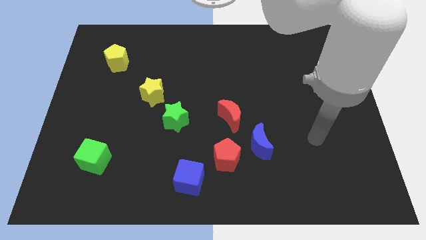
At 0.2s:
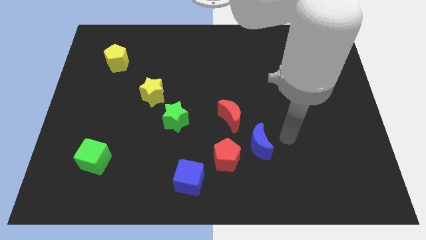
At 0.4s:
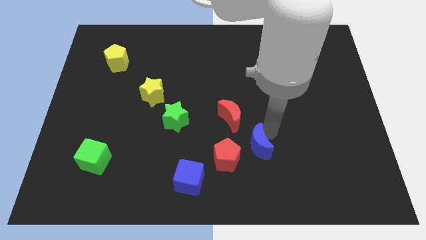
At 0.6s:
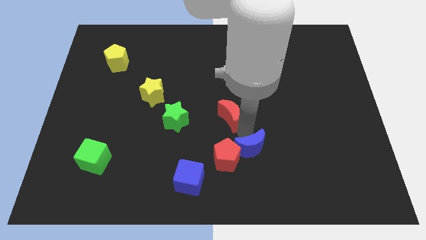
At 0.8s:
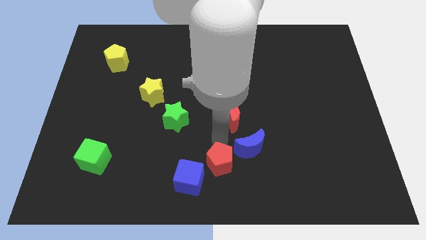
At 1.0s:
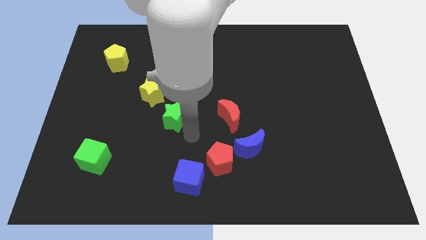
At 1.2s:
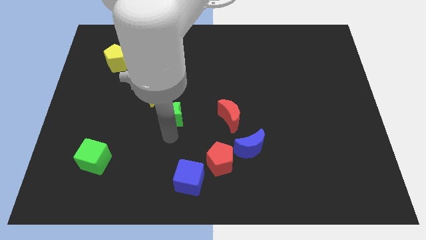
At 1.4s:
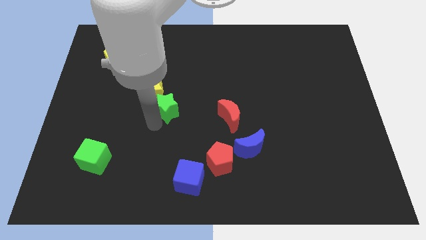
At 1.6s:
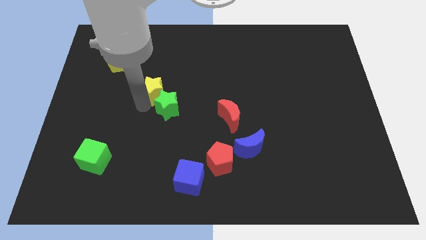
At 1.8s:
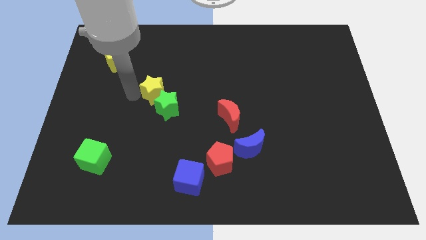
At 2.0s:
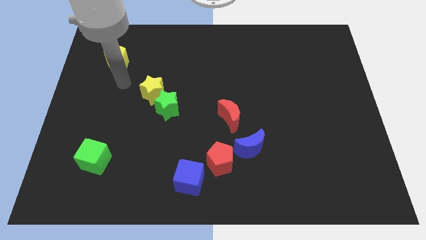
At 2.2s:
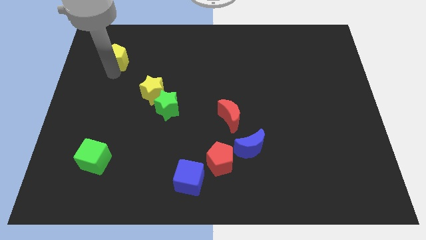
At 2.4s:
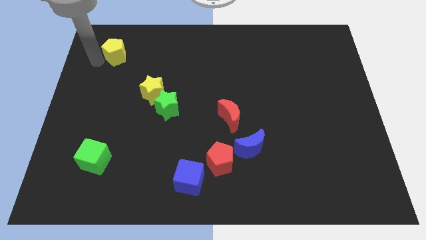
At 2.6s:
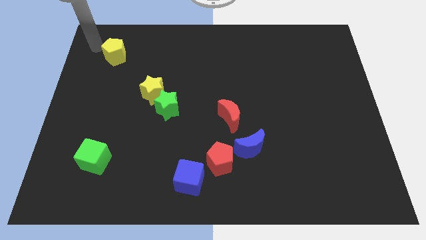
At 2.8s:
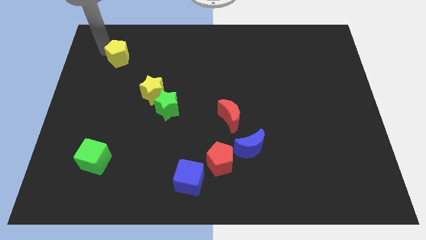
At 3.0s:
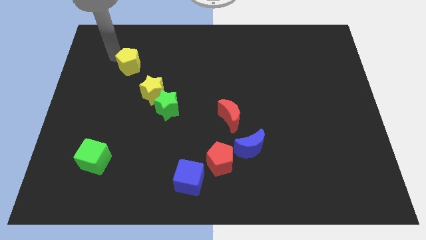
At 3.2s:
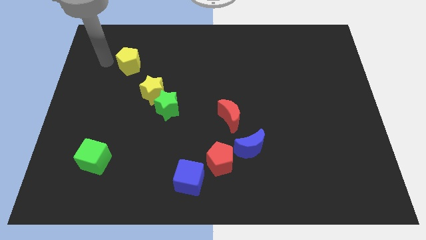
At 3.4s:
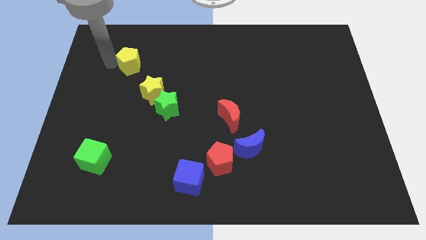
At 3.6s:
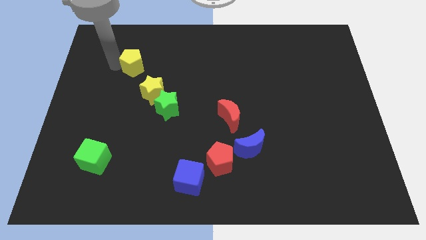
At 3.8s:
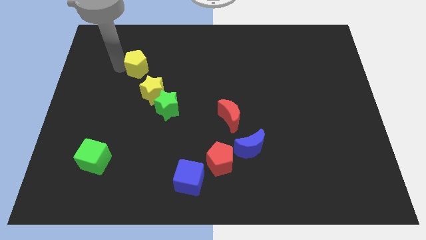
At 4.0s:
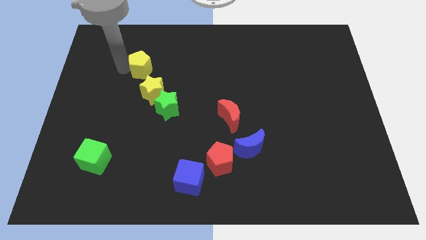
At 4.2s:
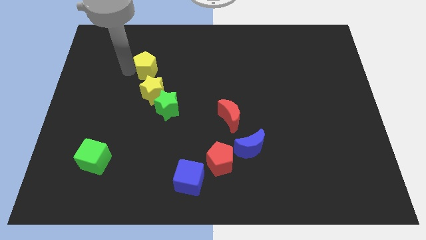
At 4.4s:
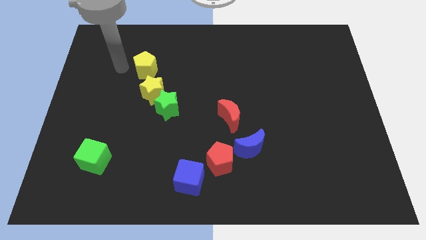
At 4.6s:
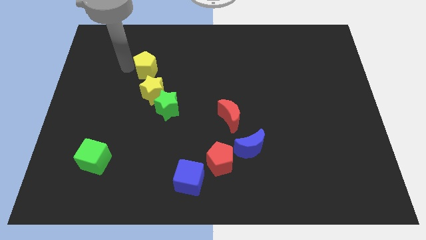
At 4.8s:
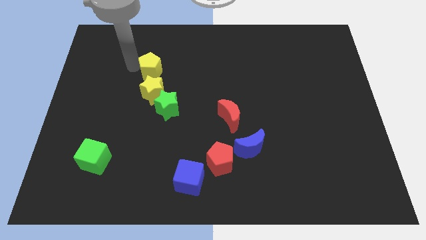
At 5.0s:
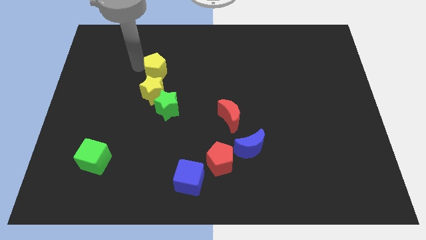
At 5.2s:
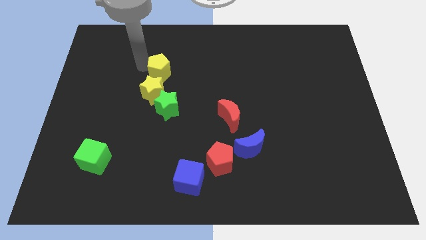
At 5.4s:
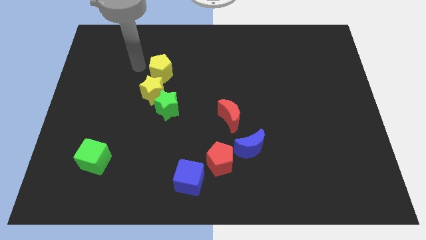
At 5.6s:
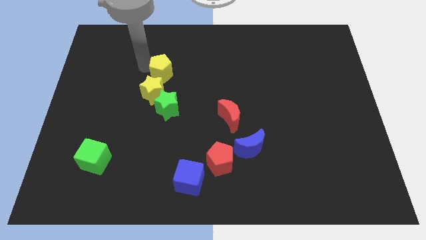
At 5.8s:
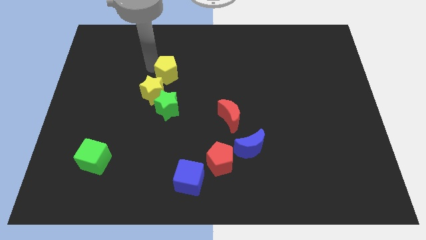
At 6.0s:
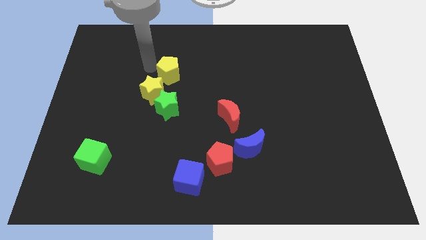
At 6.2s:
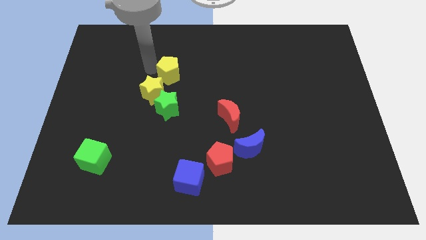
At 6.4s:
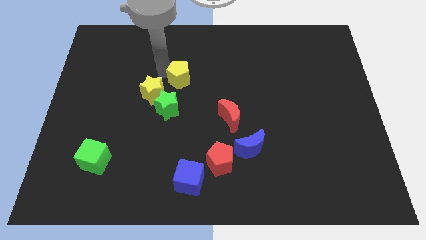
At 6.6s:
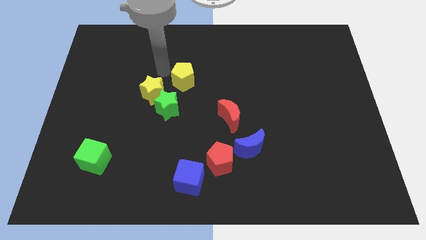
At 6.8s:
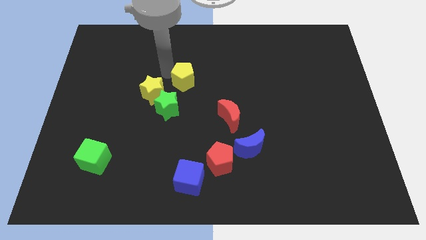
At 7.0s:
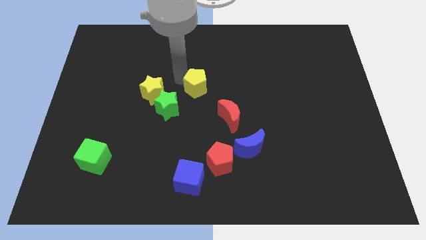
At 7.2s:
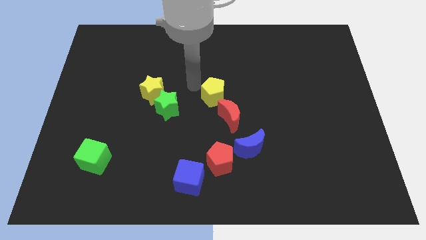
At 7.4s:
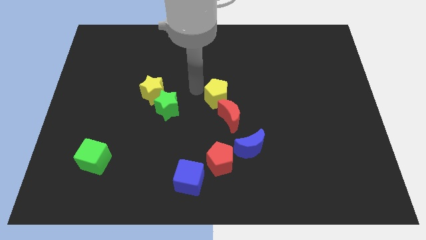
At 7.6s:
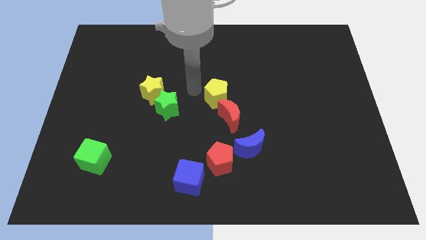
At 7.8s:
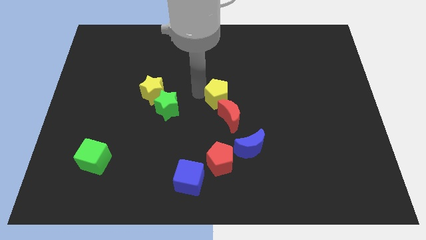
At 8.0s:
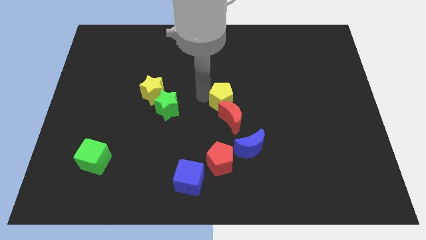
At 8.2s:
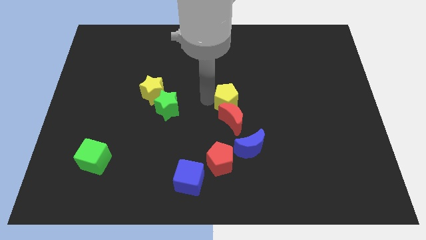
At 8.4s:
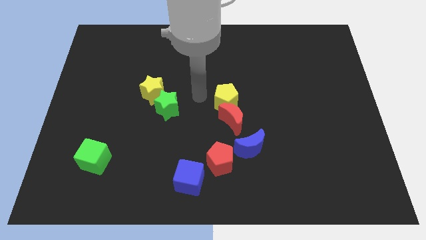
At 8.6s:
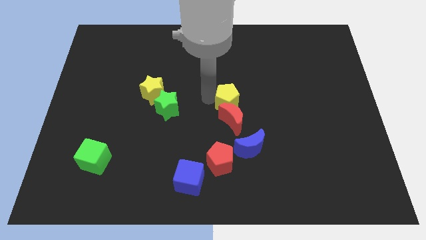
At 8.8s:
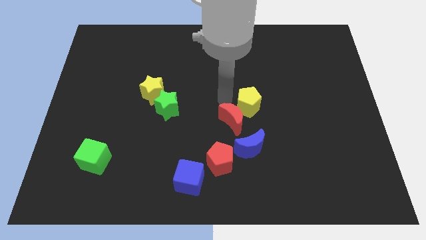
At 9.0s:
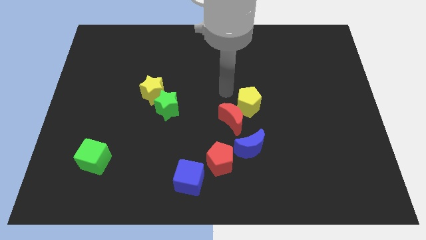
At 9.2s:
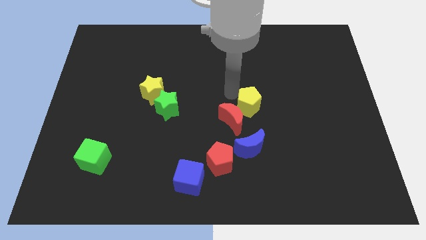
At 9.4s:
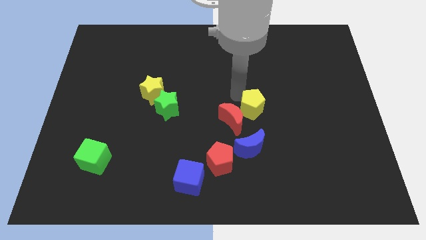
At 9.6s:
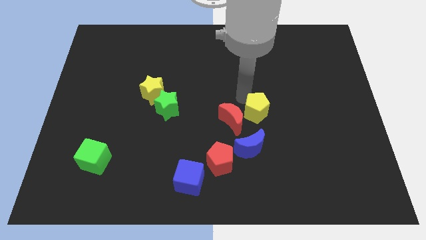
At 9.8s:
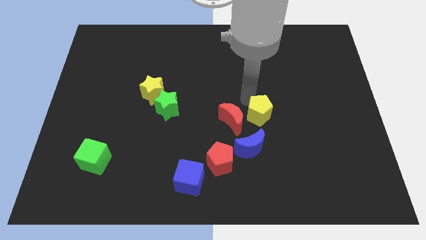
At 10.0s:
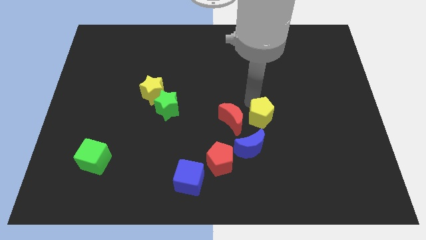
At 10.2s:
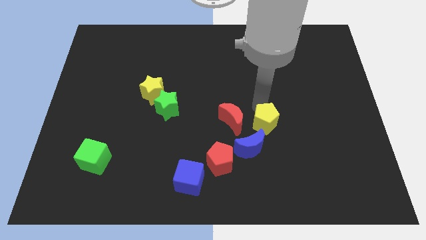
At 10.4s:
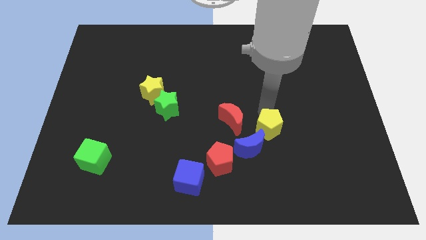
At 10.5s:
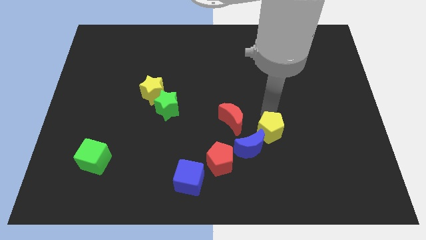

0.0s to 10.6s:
slide the yellow pentagon to the right side of the blue moon

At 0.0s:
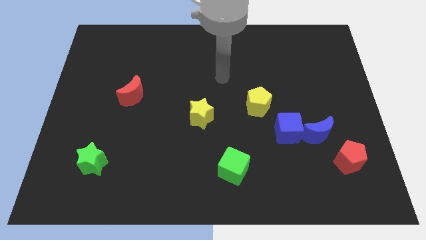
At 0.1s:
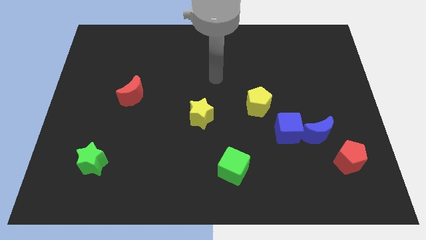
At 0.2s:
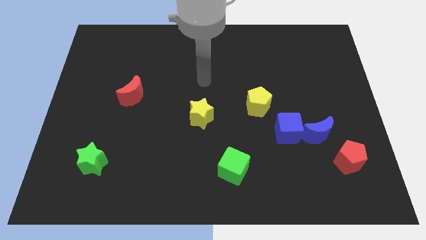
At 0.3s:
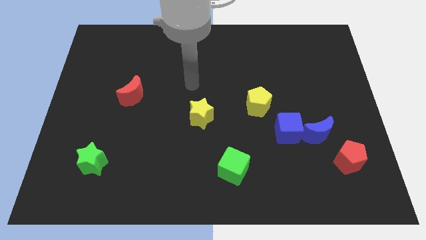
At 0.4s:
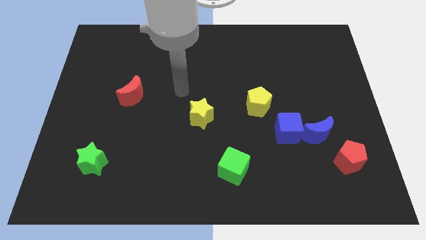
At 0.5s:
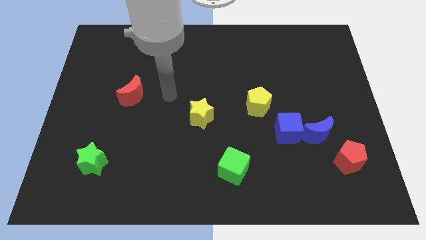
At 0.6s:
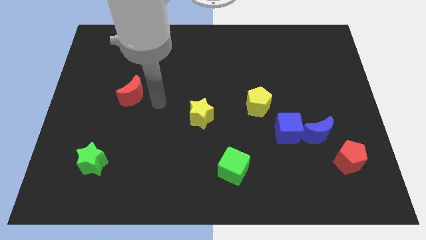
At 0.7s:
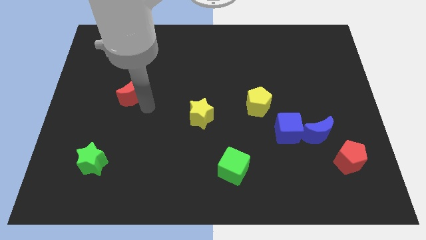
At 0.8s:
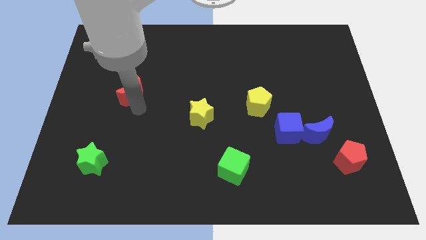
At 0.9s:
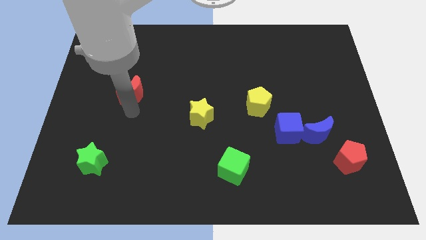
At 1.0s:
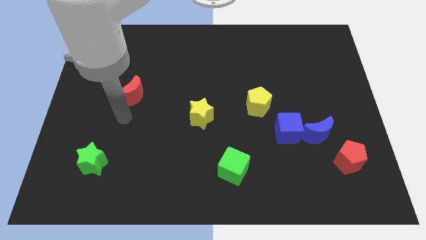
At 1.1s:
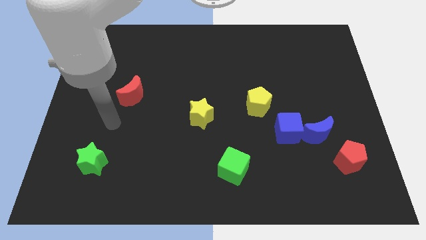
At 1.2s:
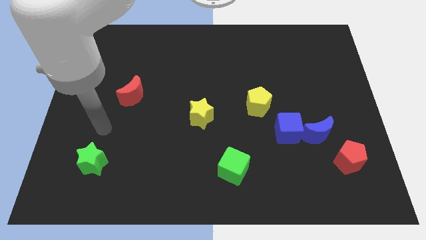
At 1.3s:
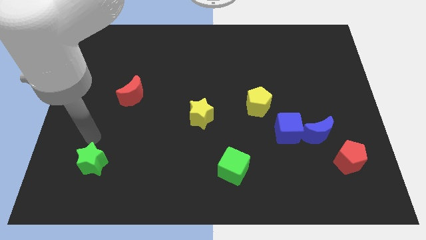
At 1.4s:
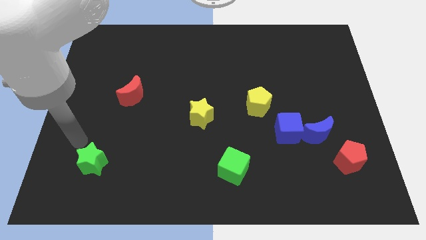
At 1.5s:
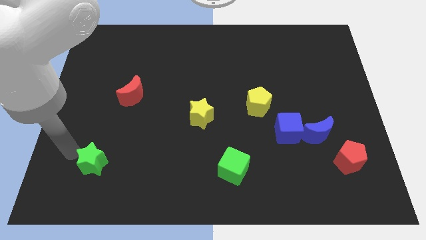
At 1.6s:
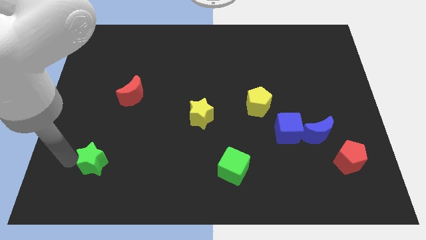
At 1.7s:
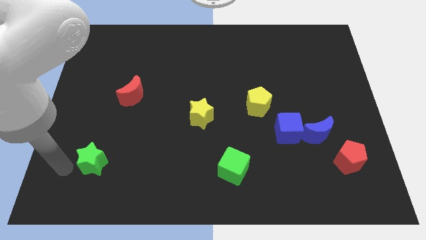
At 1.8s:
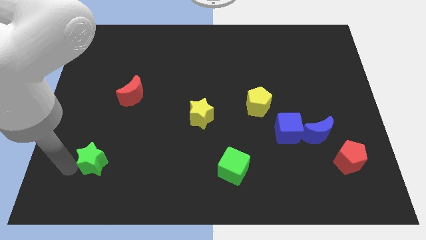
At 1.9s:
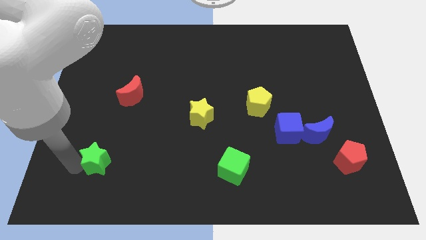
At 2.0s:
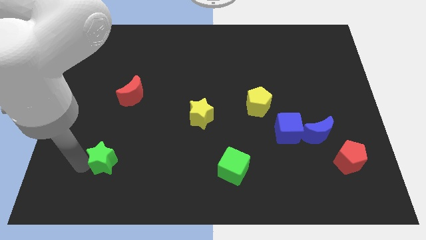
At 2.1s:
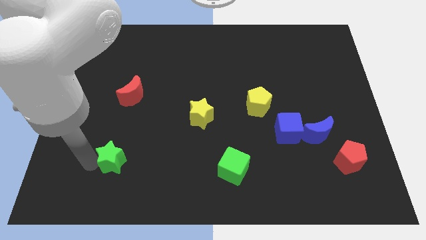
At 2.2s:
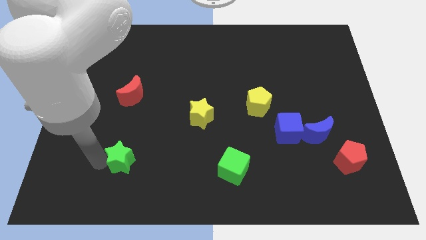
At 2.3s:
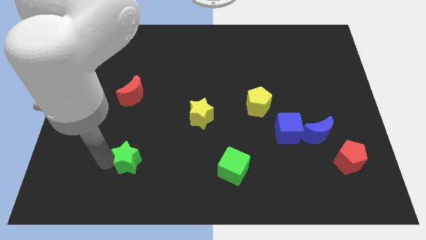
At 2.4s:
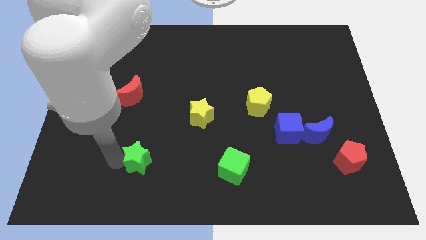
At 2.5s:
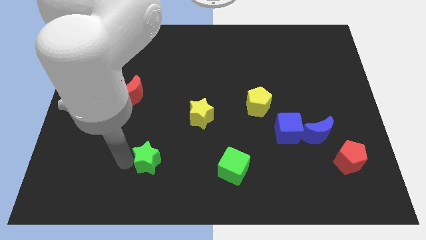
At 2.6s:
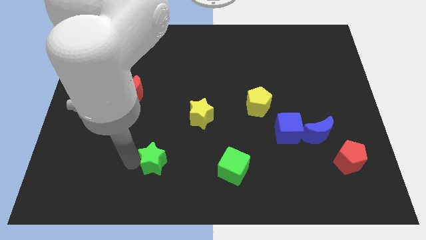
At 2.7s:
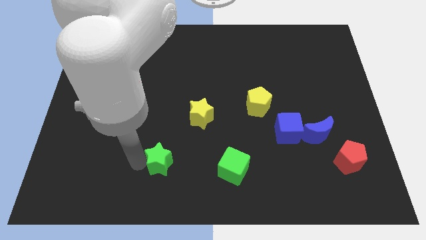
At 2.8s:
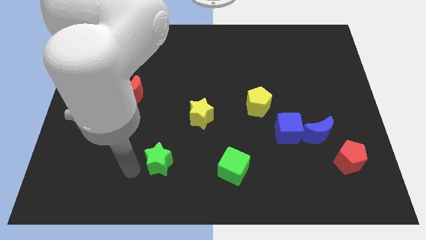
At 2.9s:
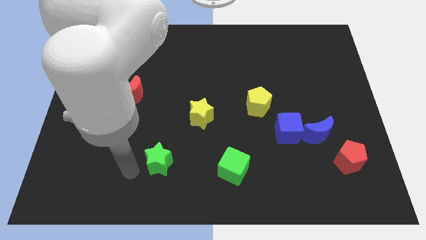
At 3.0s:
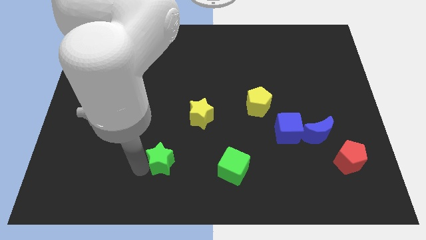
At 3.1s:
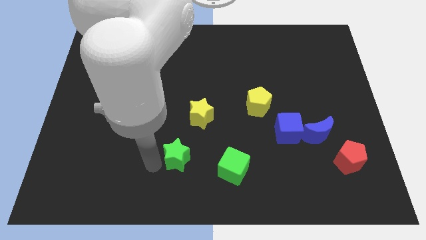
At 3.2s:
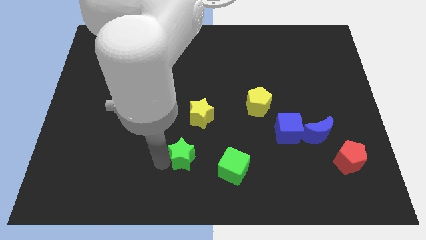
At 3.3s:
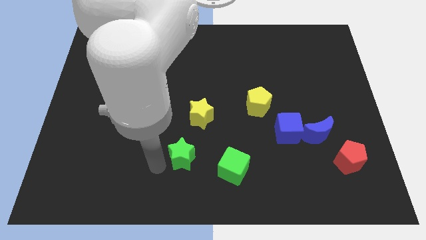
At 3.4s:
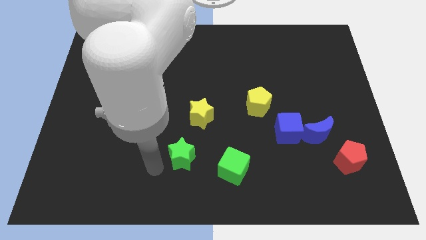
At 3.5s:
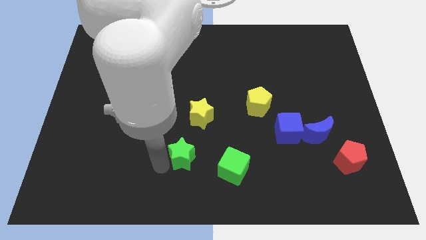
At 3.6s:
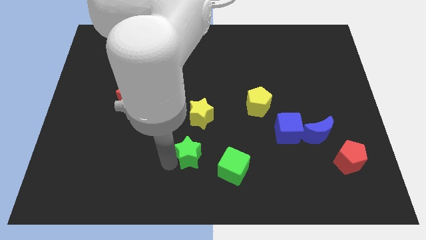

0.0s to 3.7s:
push the green star to the top left side of the green cube
